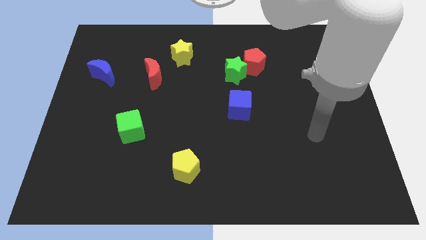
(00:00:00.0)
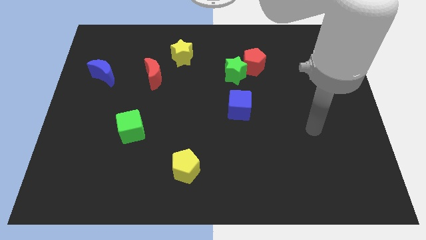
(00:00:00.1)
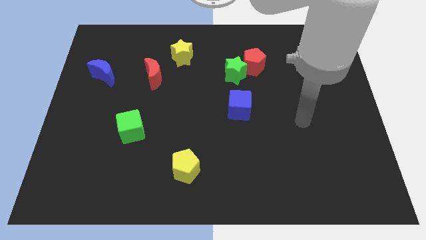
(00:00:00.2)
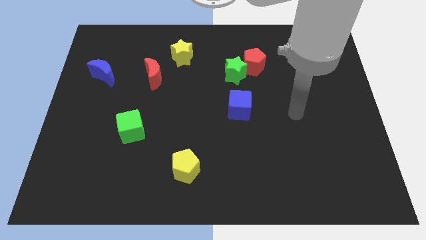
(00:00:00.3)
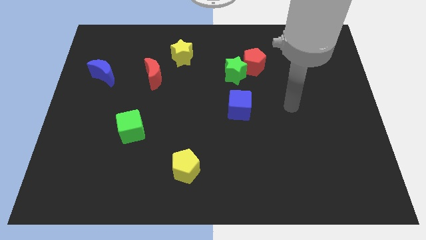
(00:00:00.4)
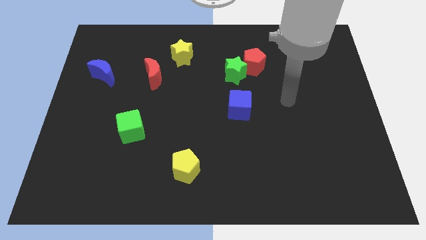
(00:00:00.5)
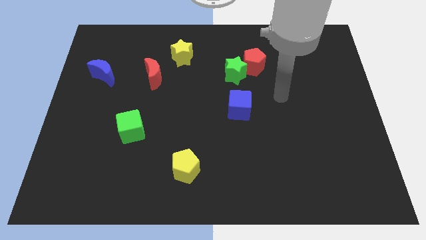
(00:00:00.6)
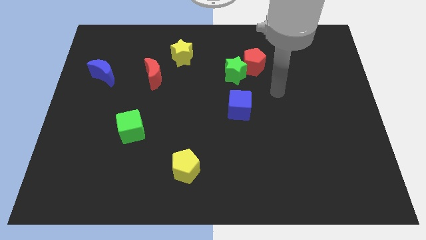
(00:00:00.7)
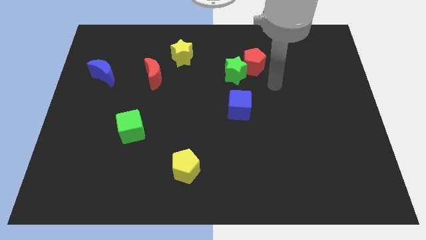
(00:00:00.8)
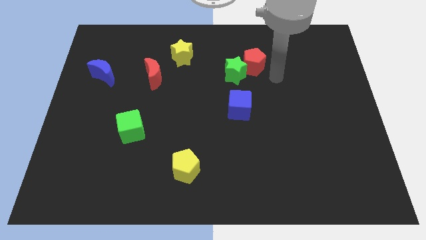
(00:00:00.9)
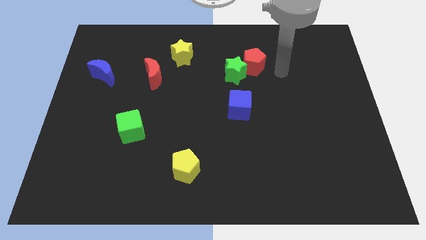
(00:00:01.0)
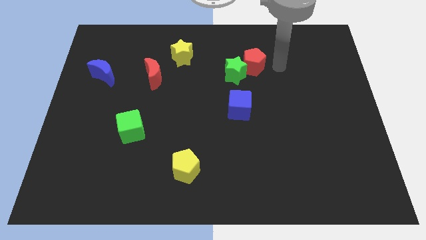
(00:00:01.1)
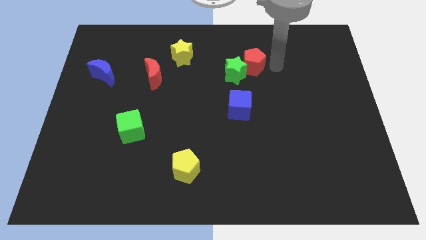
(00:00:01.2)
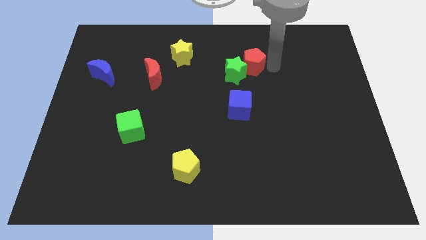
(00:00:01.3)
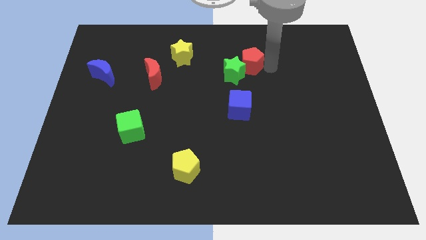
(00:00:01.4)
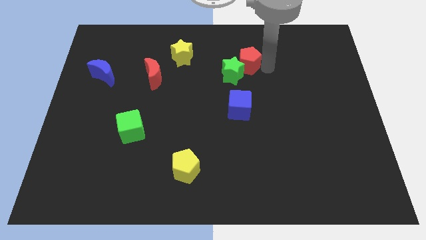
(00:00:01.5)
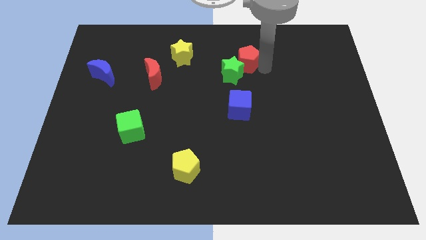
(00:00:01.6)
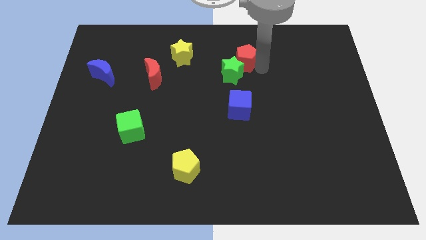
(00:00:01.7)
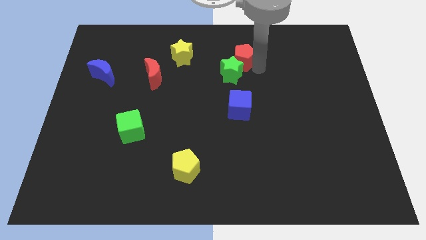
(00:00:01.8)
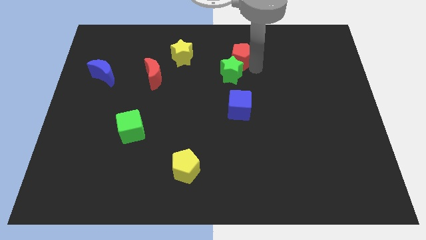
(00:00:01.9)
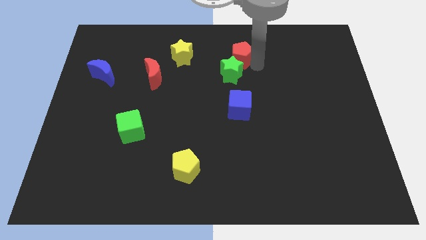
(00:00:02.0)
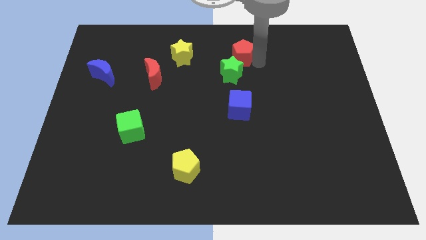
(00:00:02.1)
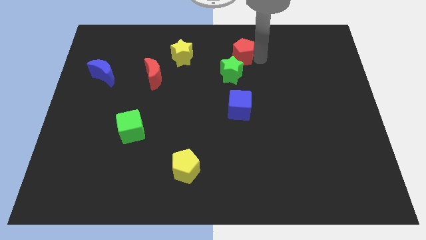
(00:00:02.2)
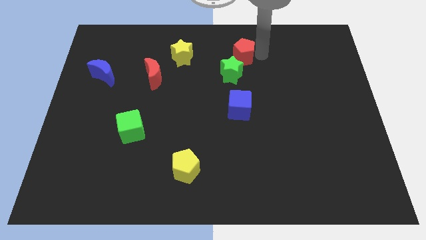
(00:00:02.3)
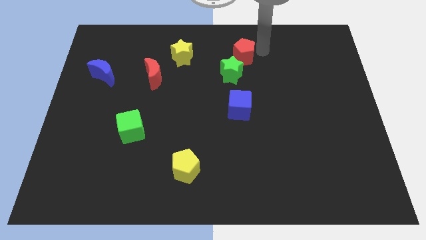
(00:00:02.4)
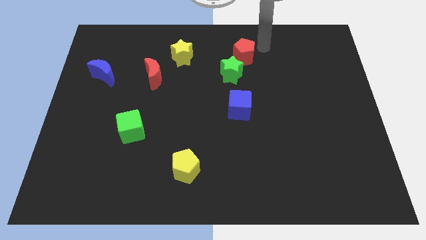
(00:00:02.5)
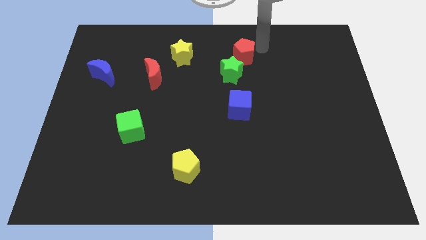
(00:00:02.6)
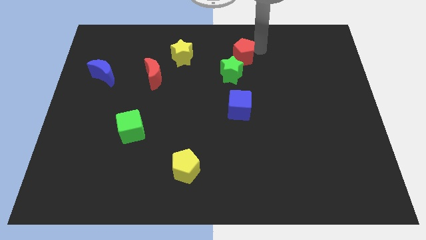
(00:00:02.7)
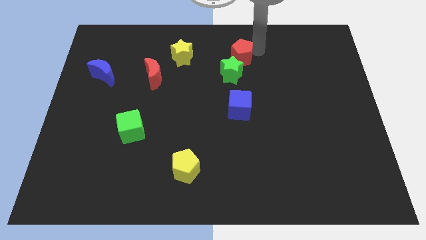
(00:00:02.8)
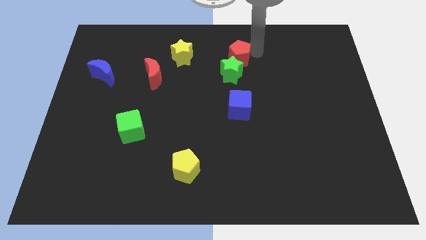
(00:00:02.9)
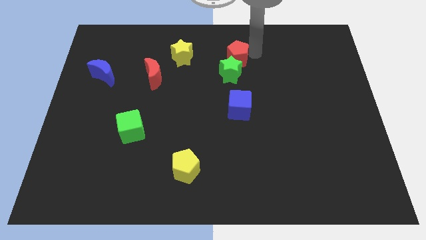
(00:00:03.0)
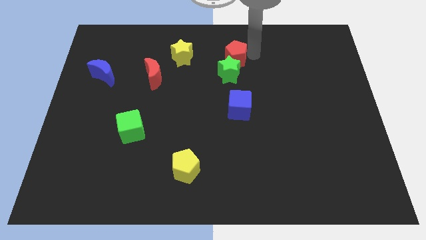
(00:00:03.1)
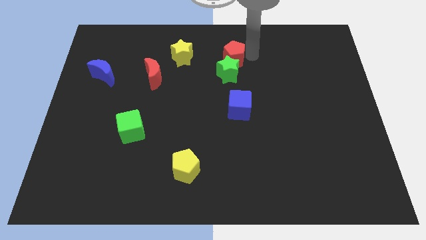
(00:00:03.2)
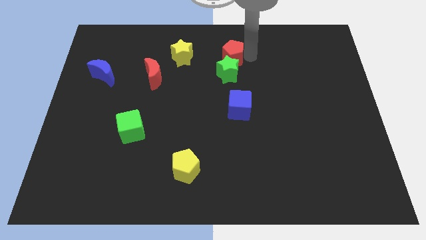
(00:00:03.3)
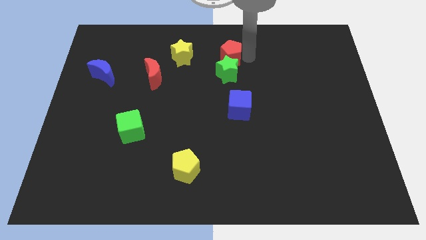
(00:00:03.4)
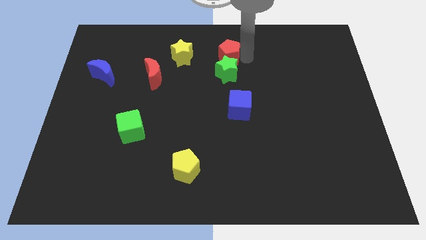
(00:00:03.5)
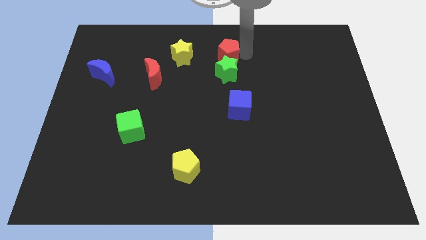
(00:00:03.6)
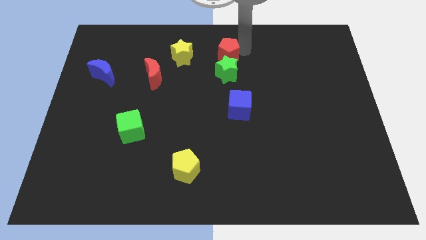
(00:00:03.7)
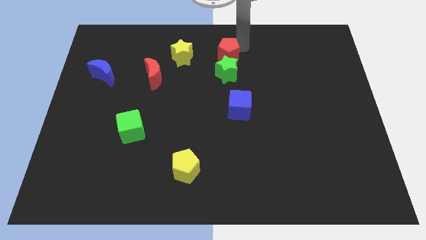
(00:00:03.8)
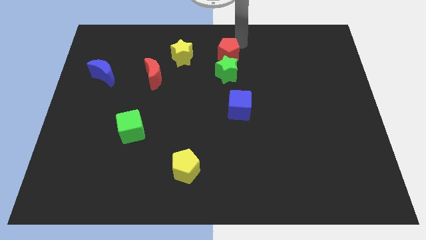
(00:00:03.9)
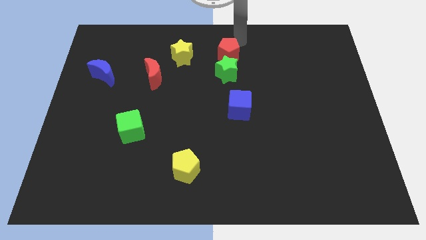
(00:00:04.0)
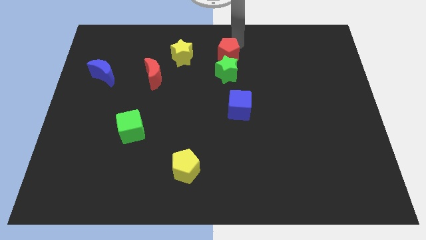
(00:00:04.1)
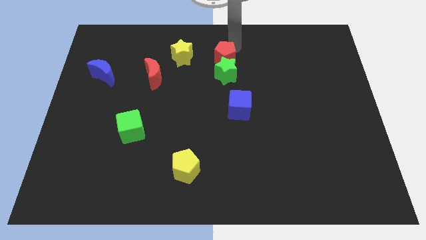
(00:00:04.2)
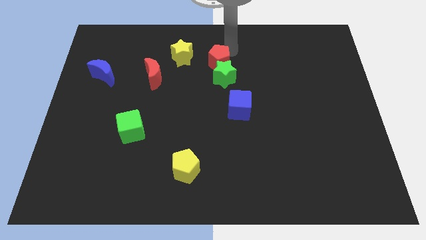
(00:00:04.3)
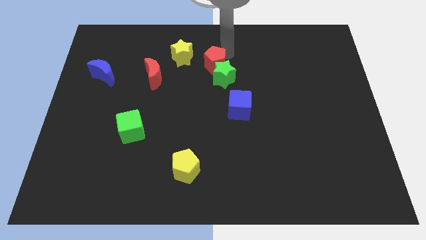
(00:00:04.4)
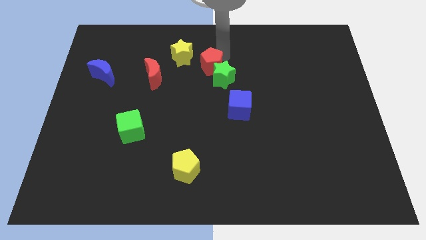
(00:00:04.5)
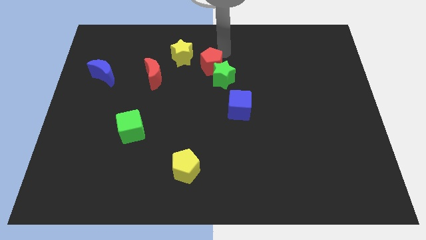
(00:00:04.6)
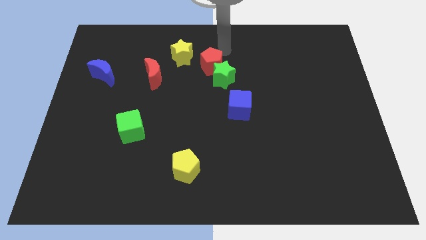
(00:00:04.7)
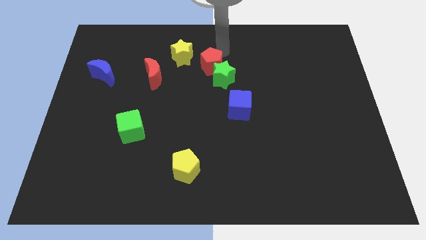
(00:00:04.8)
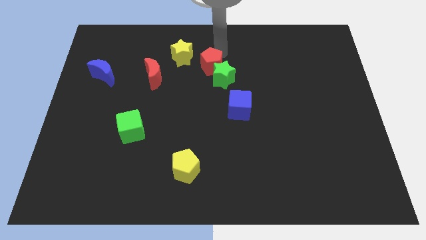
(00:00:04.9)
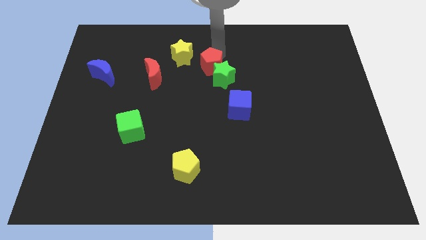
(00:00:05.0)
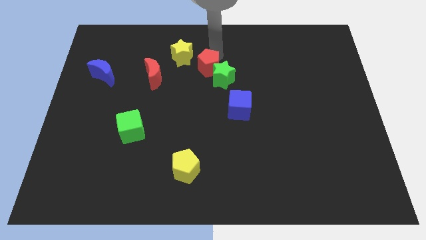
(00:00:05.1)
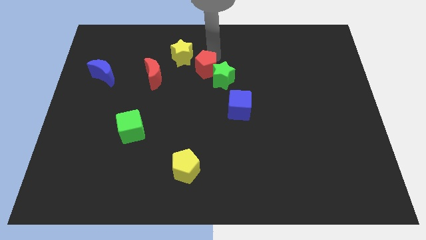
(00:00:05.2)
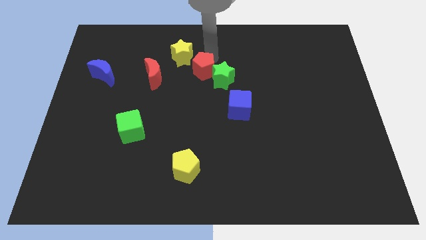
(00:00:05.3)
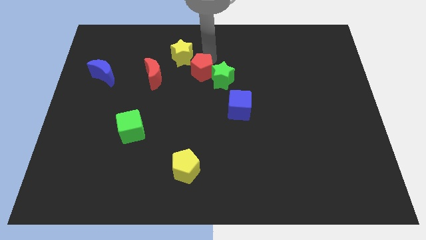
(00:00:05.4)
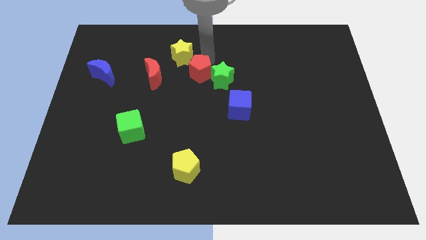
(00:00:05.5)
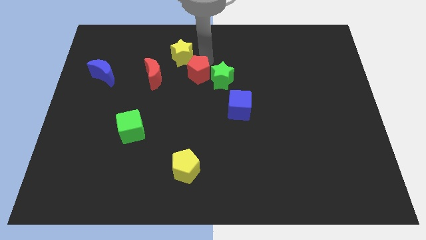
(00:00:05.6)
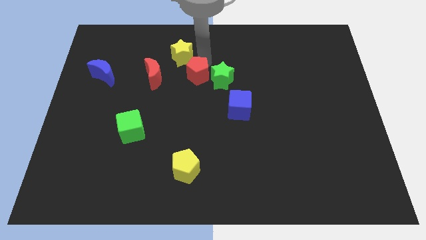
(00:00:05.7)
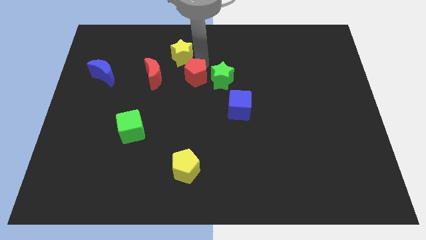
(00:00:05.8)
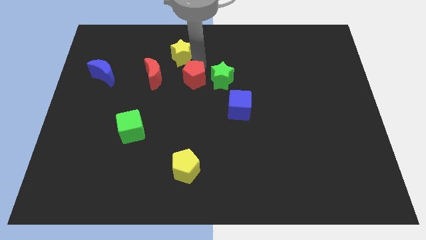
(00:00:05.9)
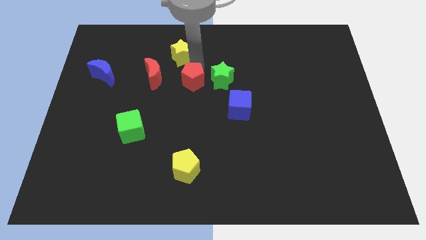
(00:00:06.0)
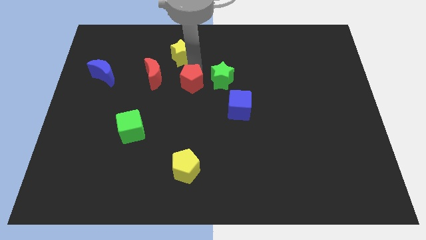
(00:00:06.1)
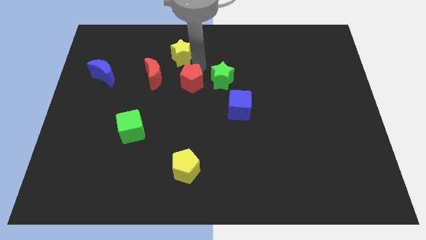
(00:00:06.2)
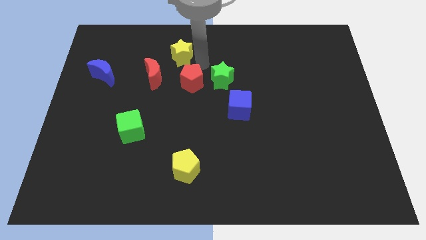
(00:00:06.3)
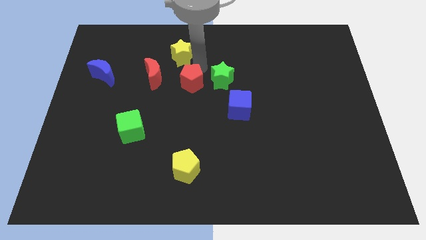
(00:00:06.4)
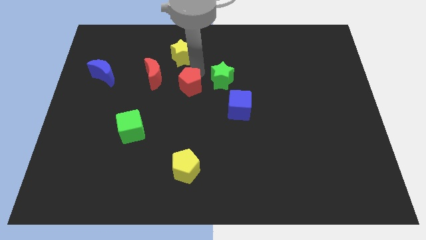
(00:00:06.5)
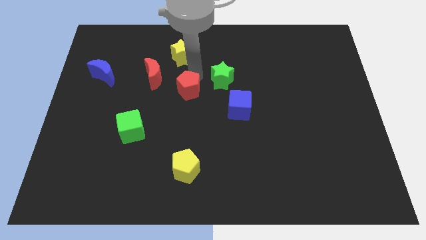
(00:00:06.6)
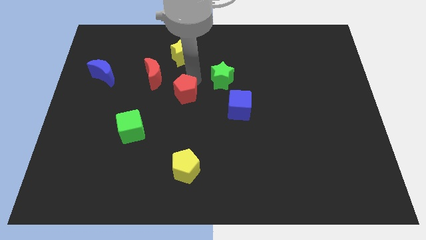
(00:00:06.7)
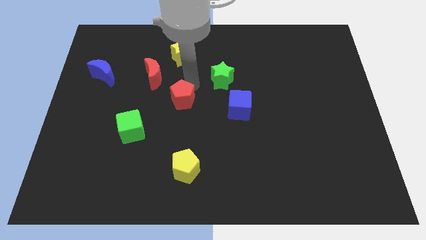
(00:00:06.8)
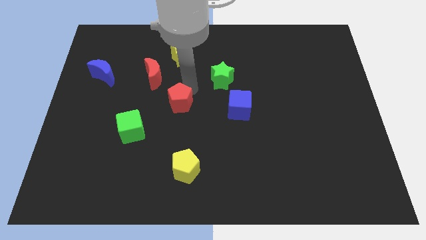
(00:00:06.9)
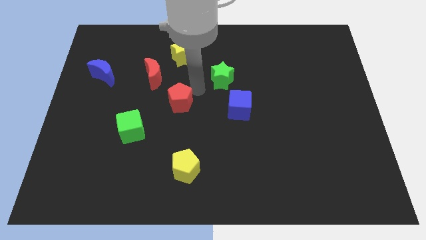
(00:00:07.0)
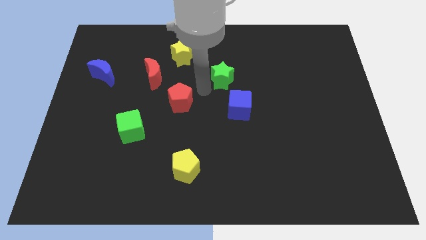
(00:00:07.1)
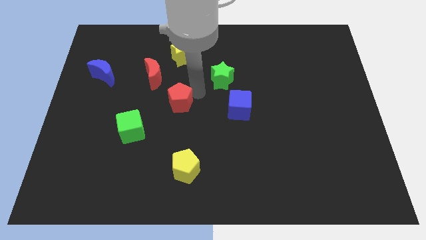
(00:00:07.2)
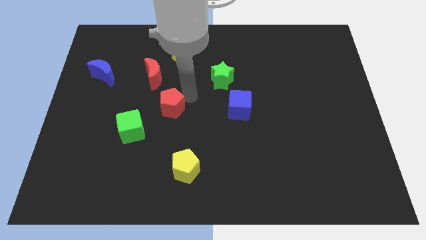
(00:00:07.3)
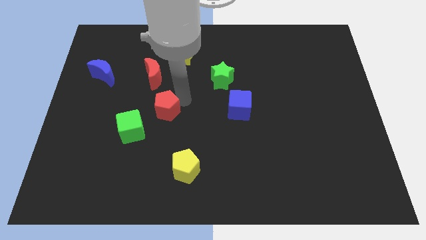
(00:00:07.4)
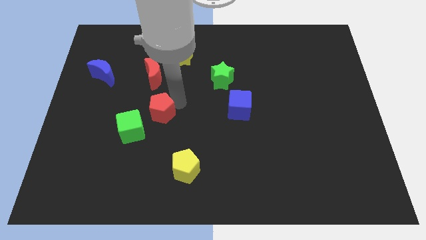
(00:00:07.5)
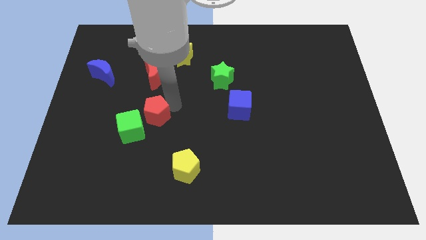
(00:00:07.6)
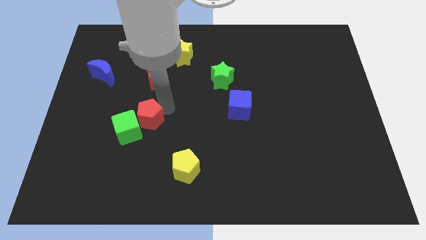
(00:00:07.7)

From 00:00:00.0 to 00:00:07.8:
move the red pentagon close to the green cube
